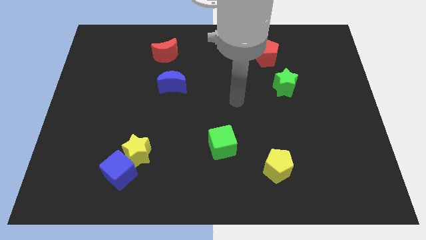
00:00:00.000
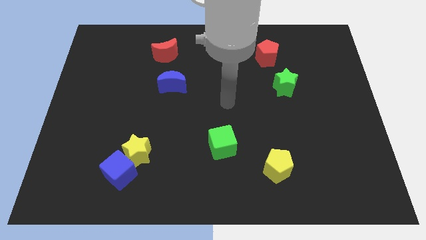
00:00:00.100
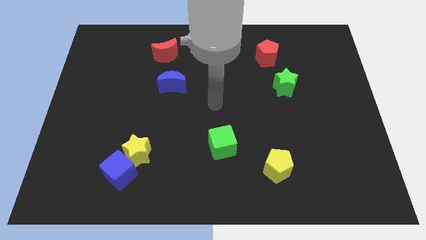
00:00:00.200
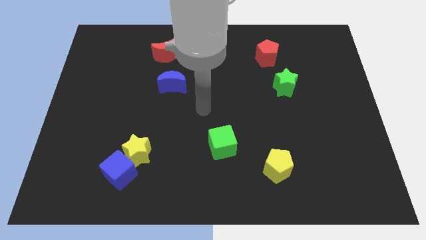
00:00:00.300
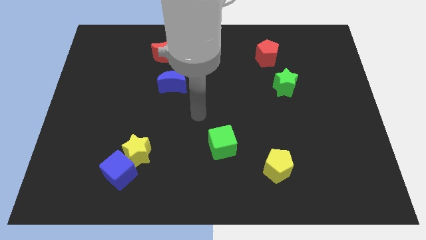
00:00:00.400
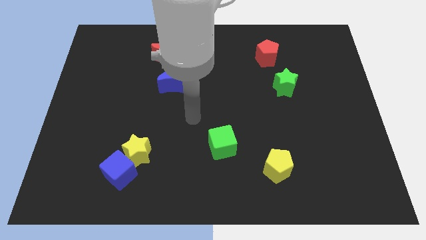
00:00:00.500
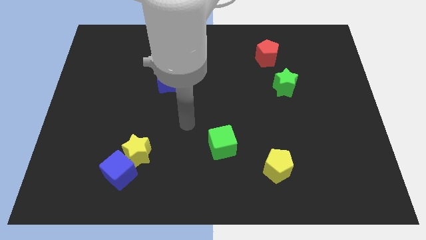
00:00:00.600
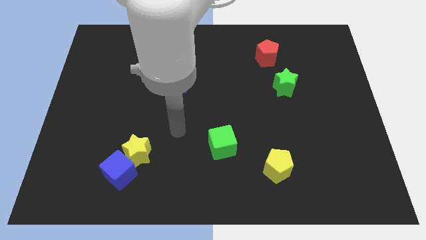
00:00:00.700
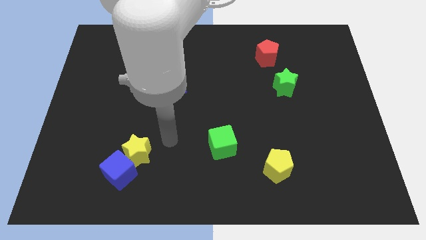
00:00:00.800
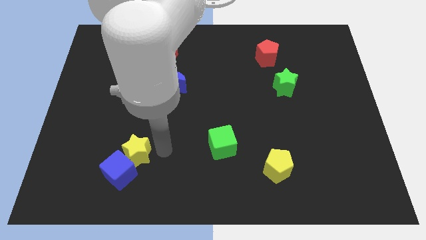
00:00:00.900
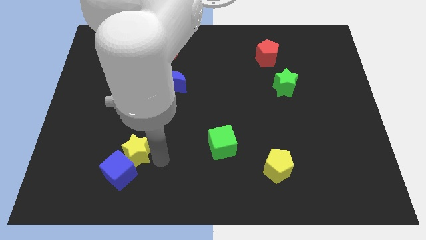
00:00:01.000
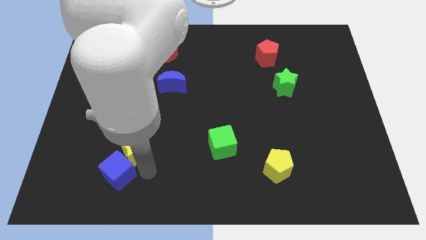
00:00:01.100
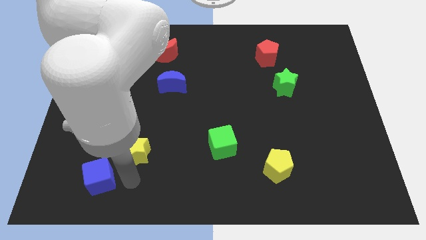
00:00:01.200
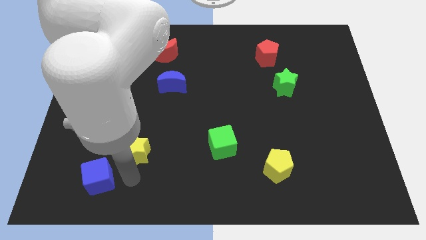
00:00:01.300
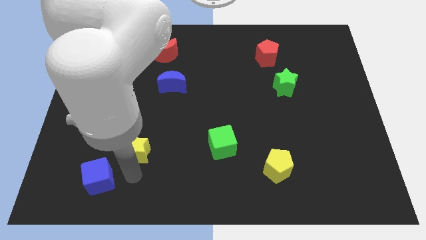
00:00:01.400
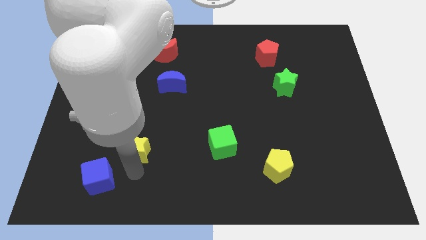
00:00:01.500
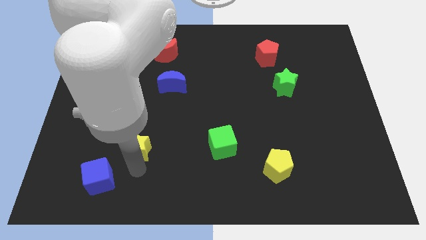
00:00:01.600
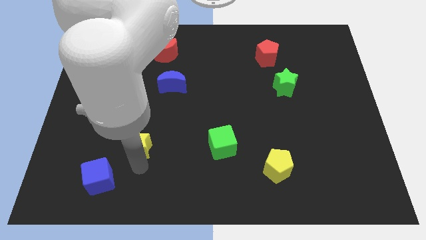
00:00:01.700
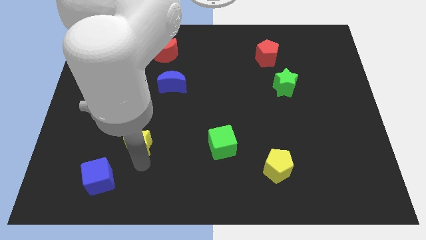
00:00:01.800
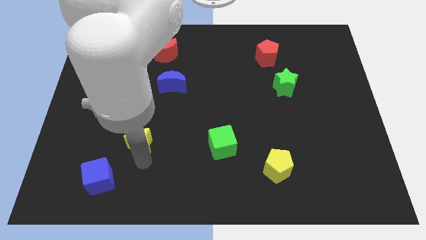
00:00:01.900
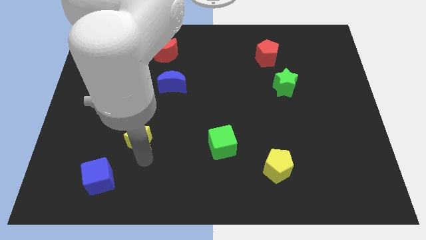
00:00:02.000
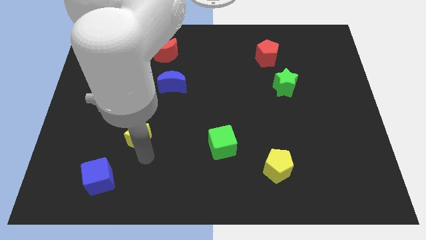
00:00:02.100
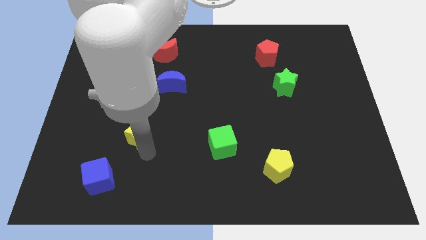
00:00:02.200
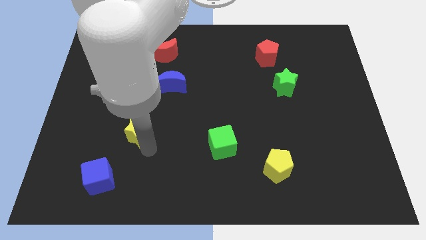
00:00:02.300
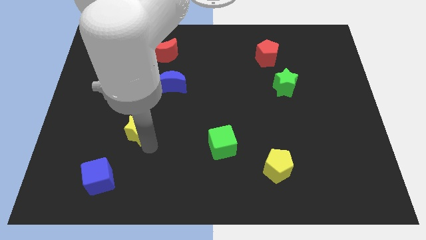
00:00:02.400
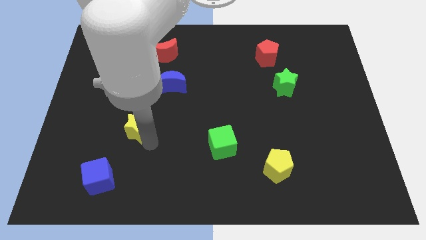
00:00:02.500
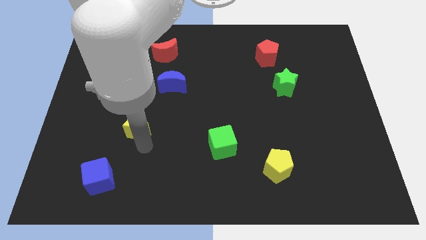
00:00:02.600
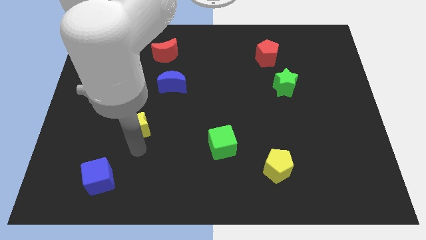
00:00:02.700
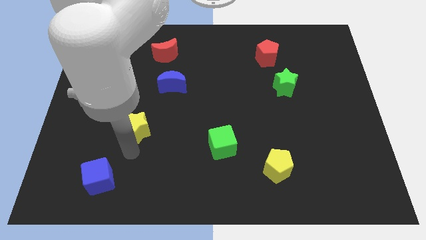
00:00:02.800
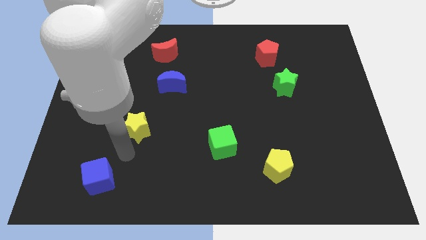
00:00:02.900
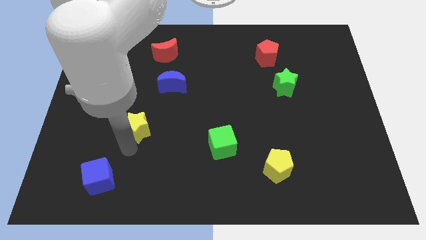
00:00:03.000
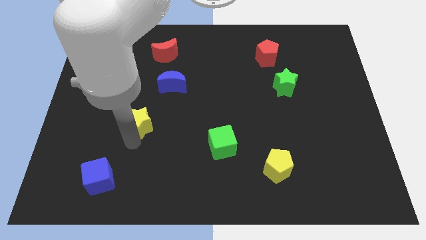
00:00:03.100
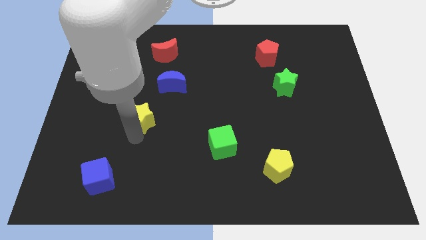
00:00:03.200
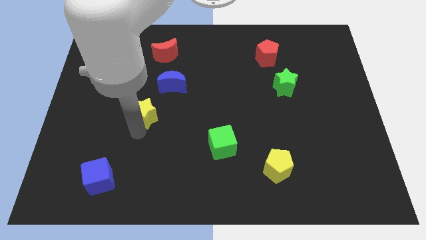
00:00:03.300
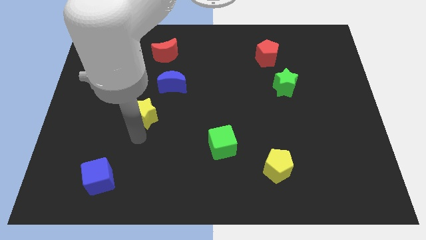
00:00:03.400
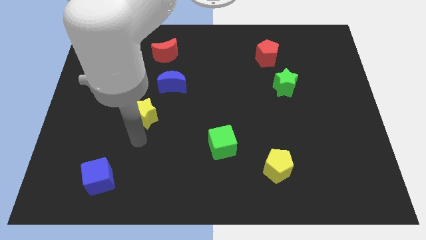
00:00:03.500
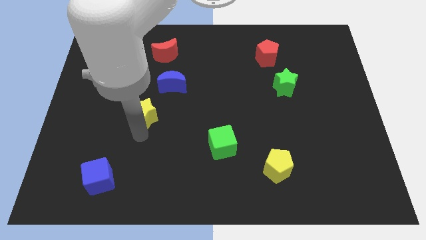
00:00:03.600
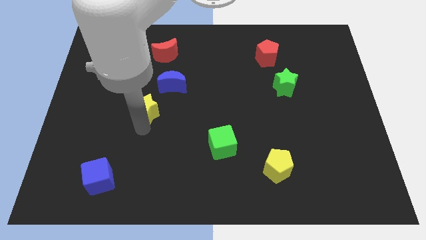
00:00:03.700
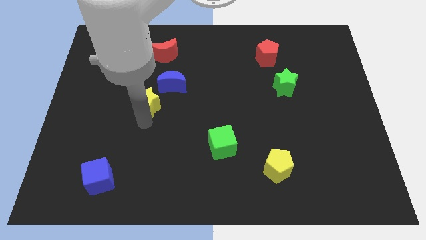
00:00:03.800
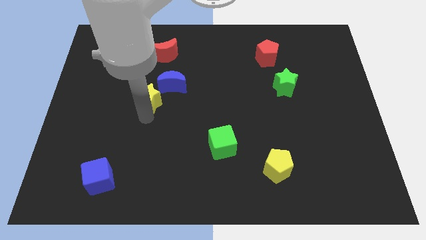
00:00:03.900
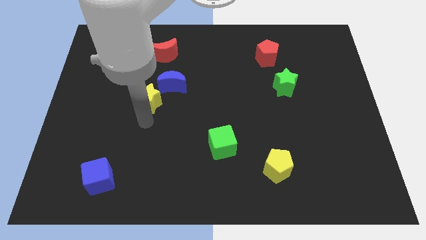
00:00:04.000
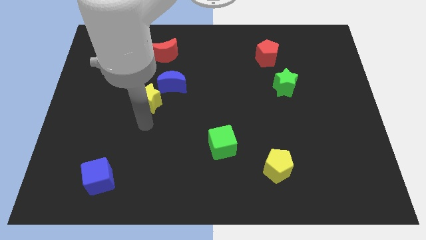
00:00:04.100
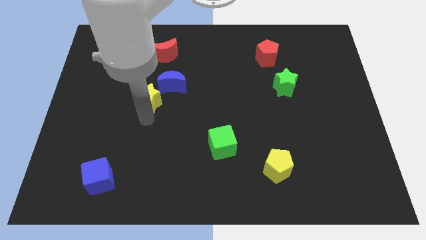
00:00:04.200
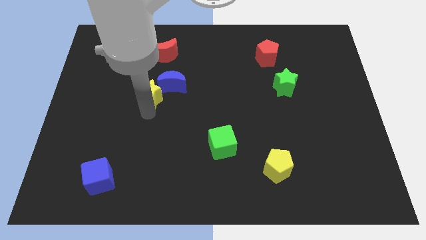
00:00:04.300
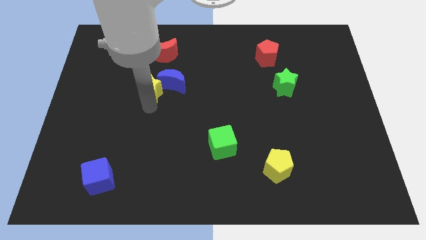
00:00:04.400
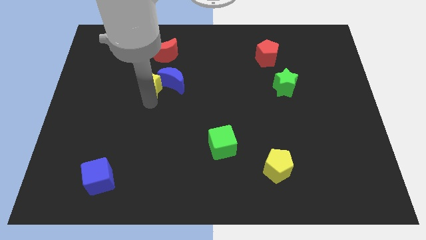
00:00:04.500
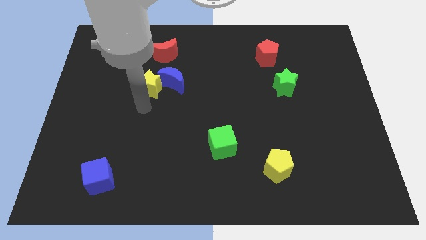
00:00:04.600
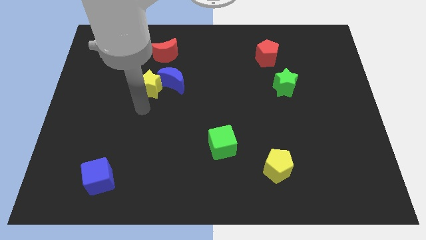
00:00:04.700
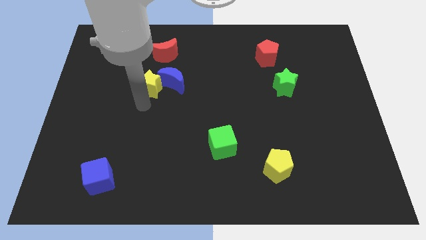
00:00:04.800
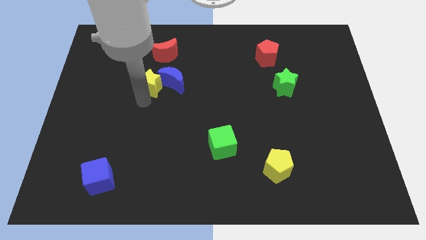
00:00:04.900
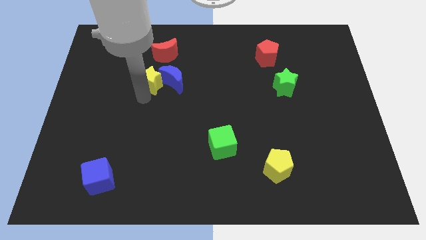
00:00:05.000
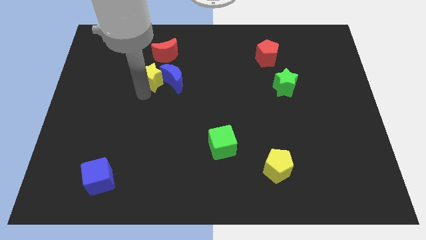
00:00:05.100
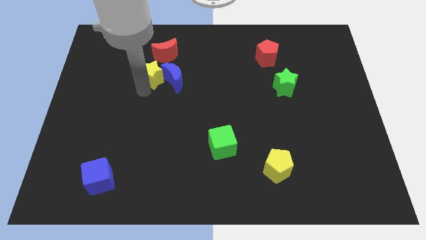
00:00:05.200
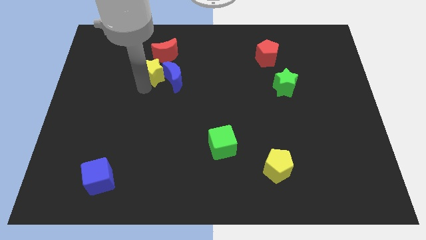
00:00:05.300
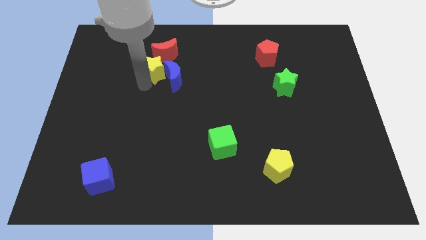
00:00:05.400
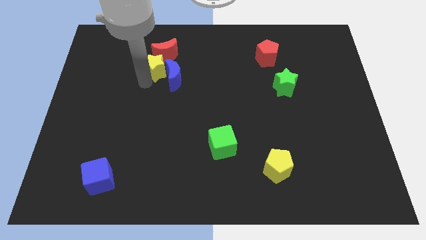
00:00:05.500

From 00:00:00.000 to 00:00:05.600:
put the yellow star to the red moon

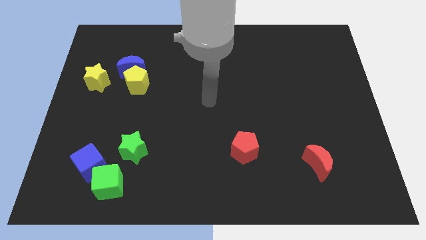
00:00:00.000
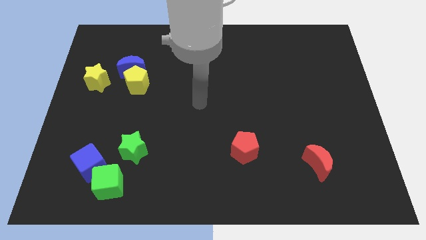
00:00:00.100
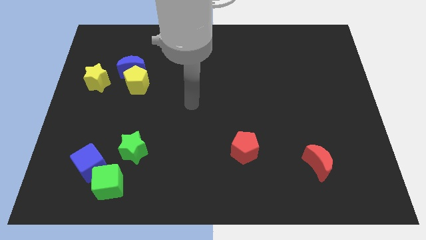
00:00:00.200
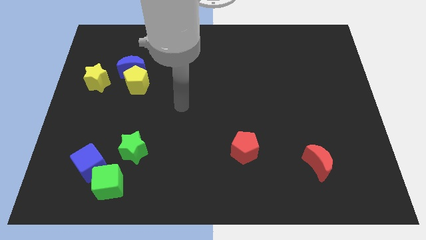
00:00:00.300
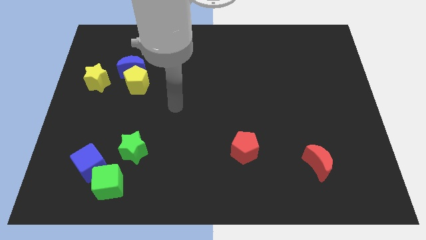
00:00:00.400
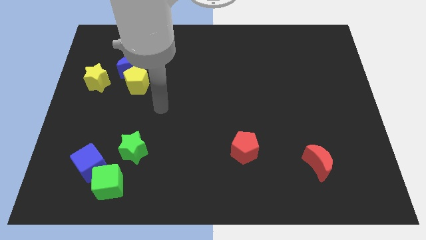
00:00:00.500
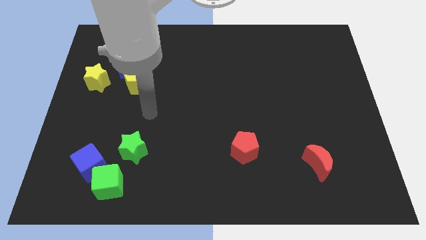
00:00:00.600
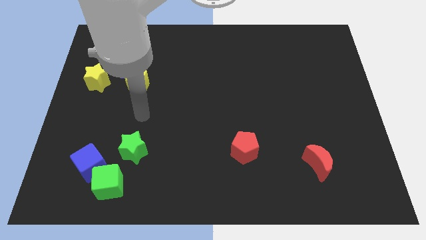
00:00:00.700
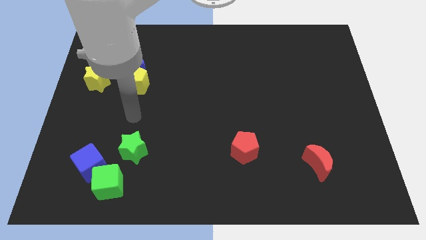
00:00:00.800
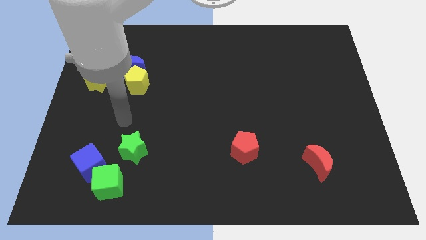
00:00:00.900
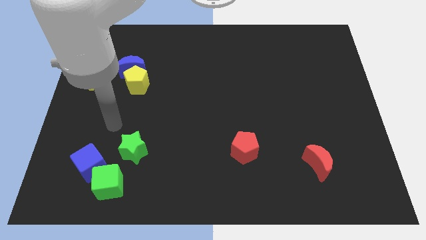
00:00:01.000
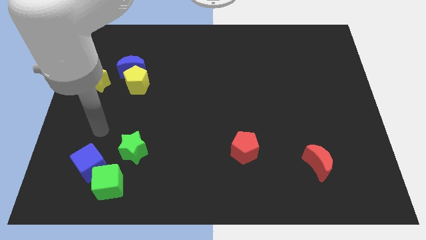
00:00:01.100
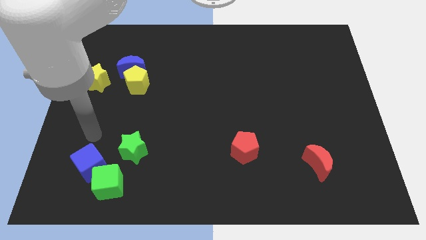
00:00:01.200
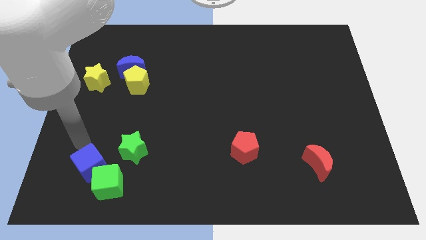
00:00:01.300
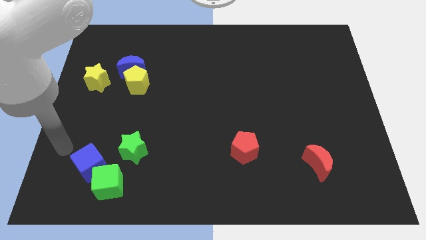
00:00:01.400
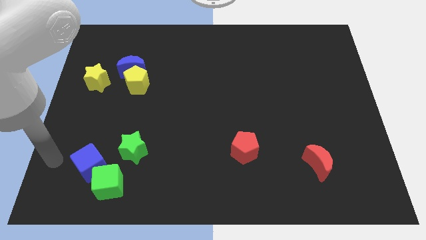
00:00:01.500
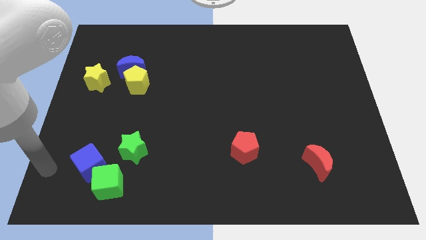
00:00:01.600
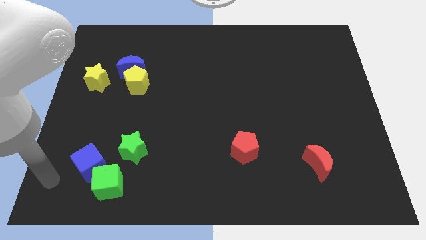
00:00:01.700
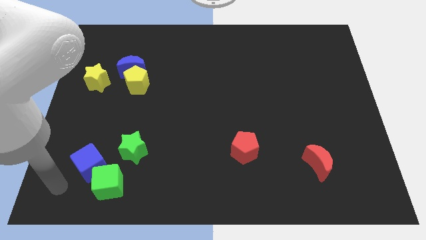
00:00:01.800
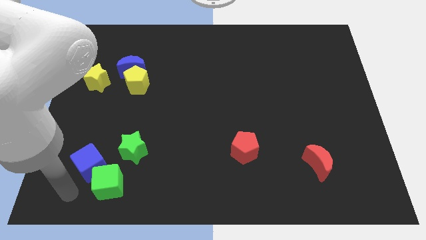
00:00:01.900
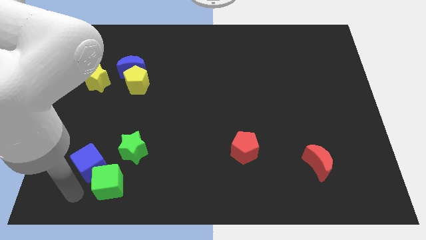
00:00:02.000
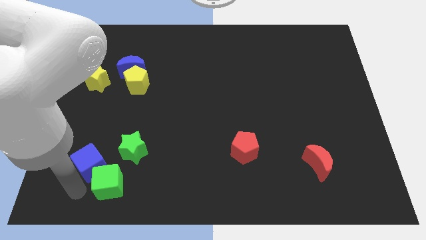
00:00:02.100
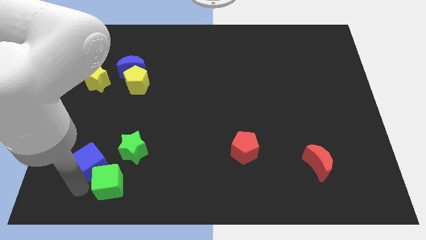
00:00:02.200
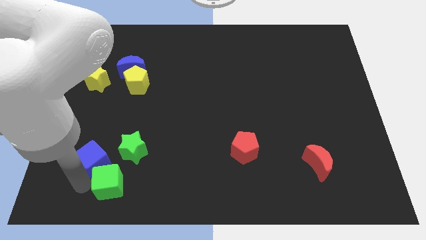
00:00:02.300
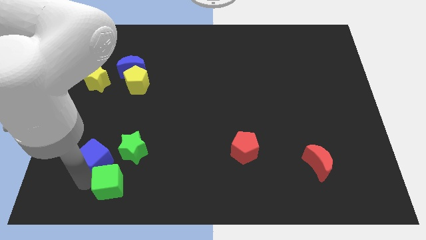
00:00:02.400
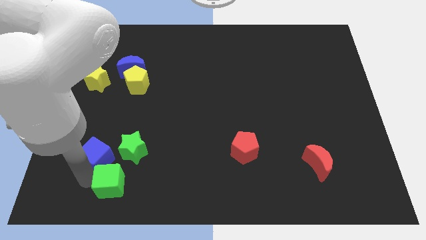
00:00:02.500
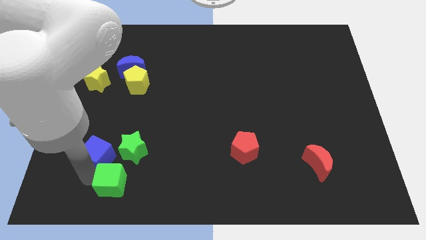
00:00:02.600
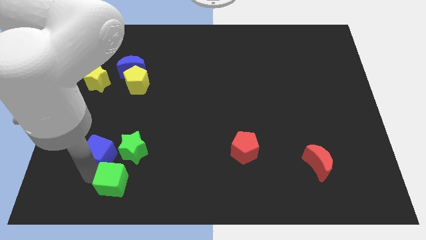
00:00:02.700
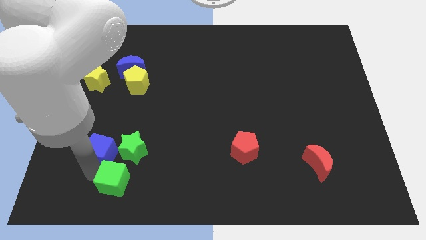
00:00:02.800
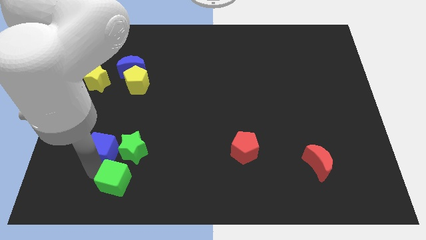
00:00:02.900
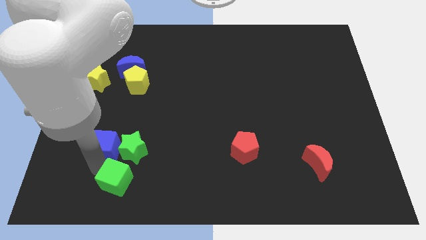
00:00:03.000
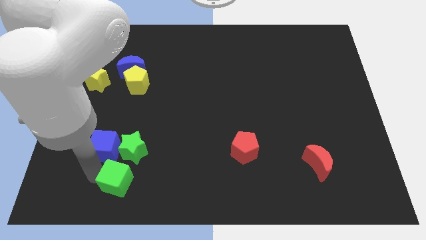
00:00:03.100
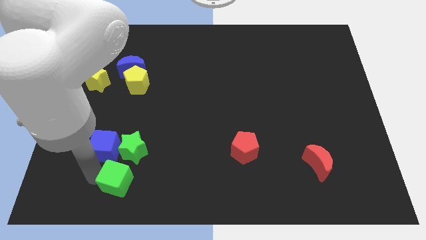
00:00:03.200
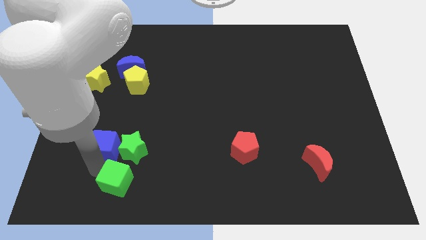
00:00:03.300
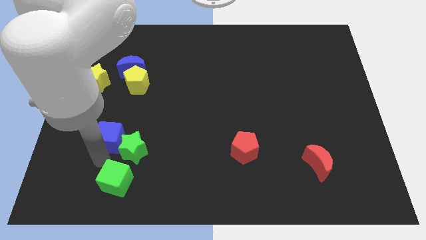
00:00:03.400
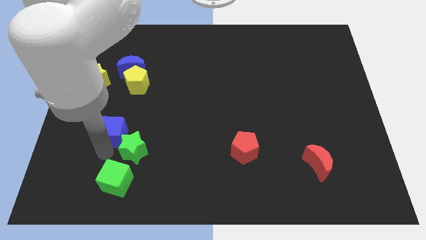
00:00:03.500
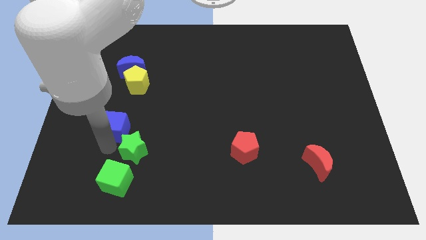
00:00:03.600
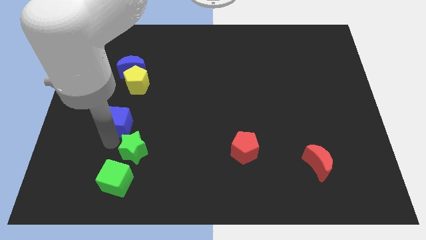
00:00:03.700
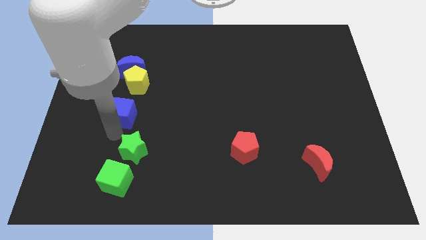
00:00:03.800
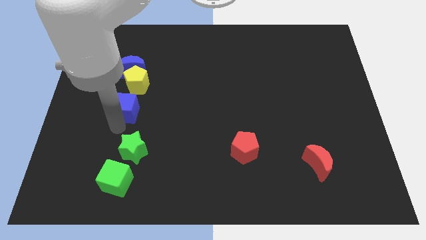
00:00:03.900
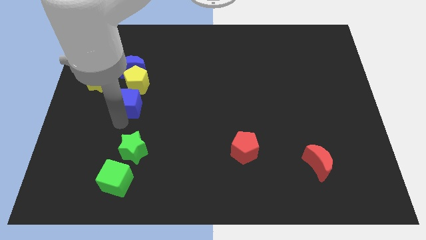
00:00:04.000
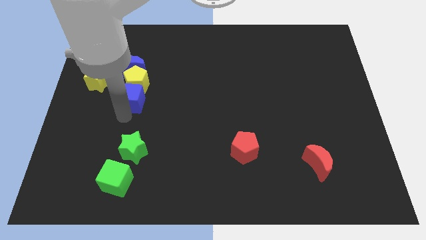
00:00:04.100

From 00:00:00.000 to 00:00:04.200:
slide the blue cube towards the yellow pentagon
